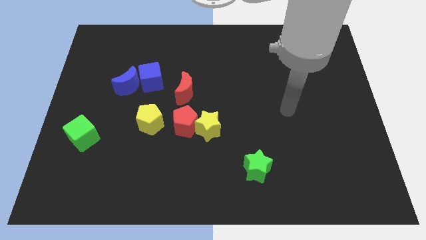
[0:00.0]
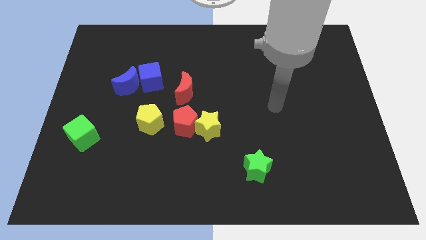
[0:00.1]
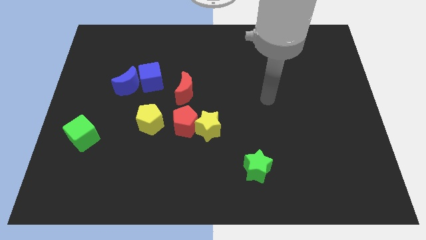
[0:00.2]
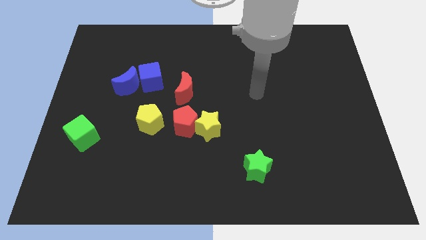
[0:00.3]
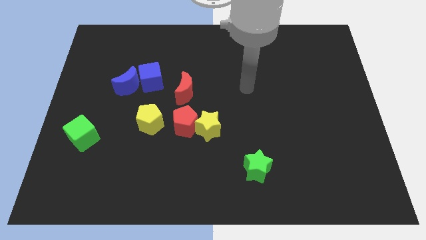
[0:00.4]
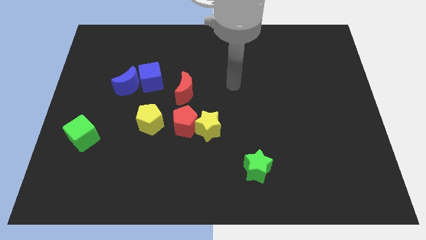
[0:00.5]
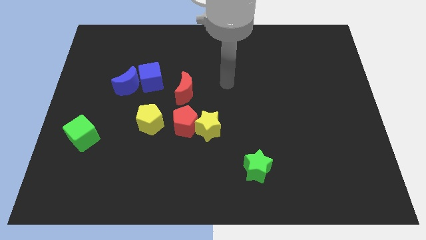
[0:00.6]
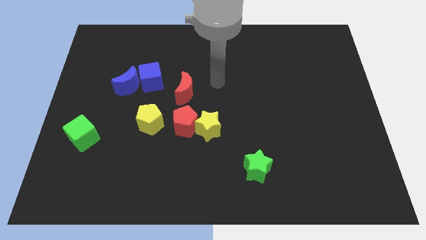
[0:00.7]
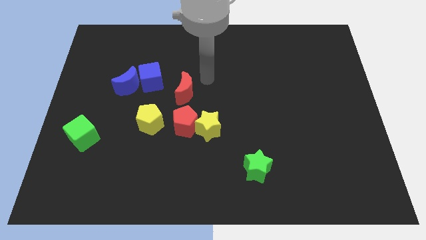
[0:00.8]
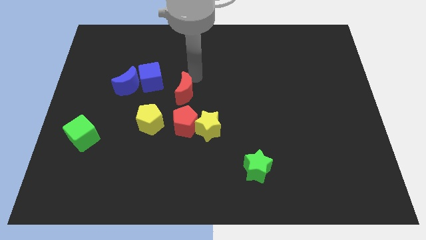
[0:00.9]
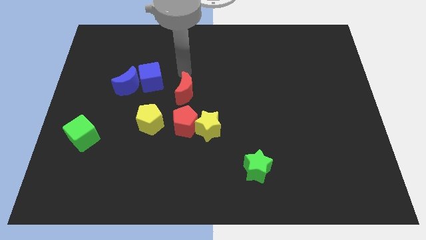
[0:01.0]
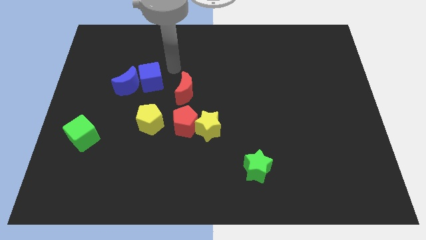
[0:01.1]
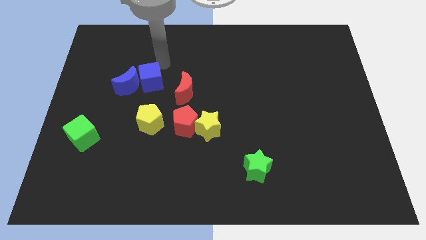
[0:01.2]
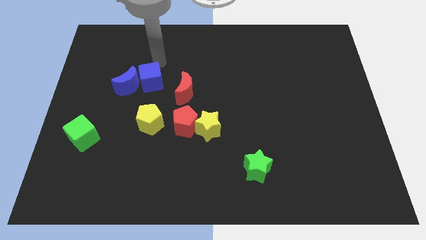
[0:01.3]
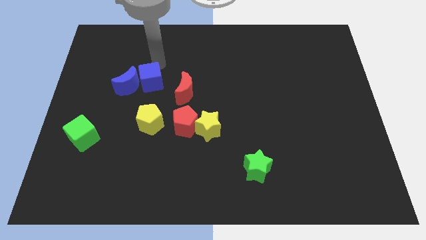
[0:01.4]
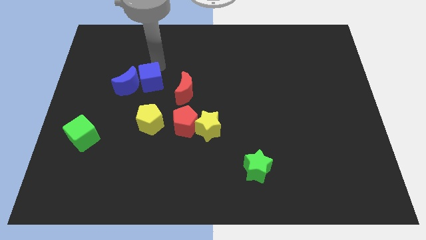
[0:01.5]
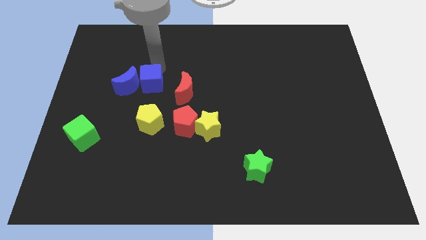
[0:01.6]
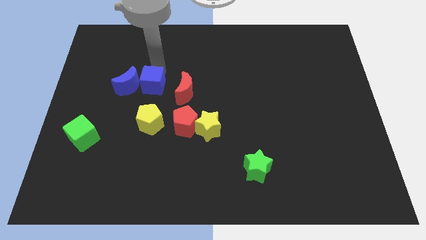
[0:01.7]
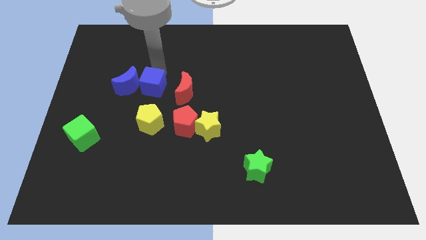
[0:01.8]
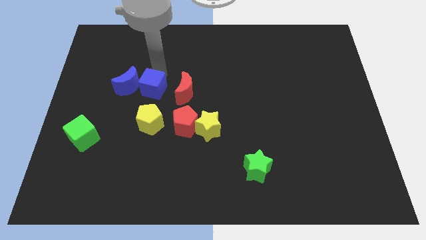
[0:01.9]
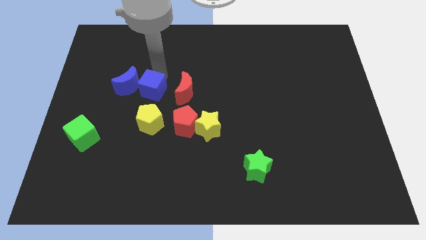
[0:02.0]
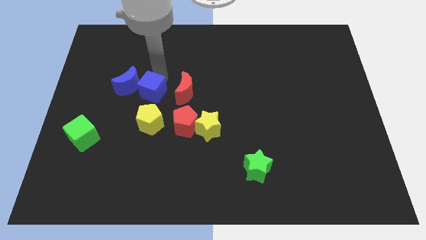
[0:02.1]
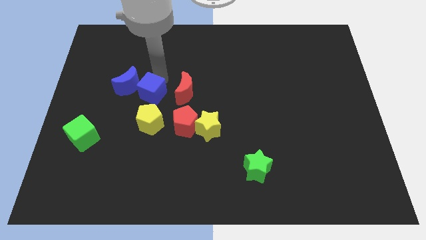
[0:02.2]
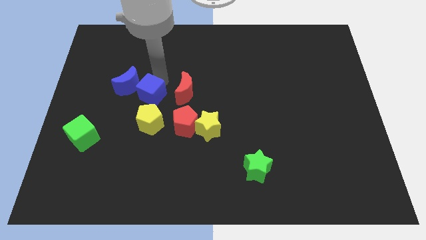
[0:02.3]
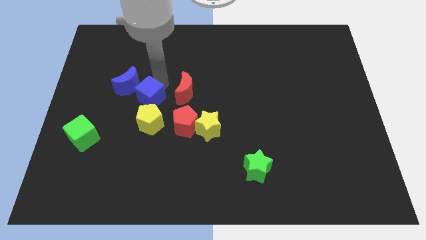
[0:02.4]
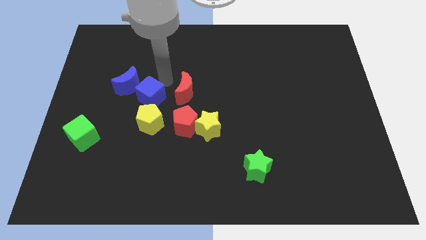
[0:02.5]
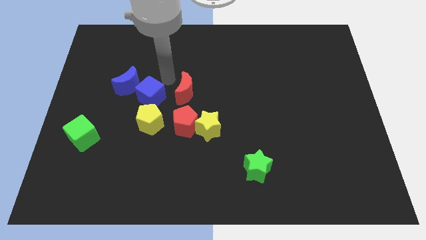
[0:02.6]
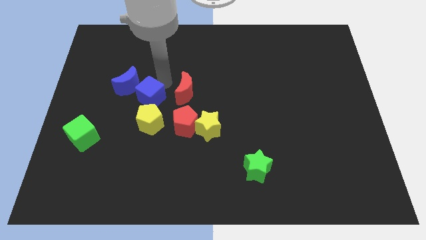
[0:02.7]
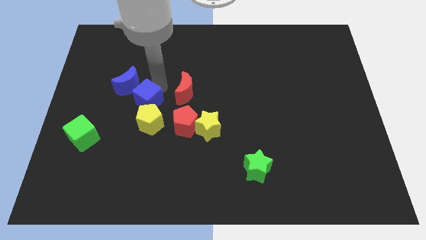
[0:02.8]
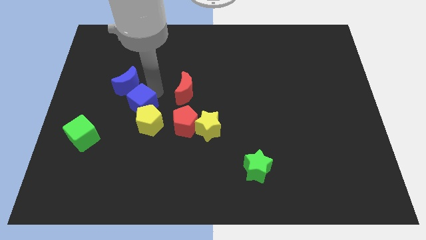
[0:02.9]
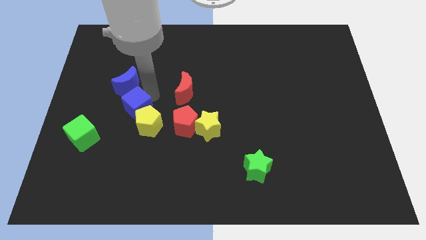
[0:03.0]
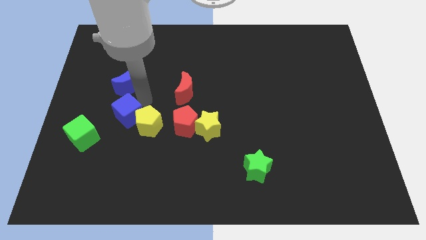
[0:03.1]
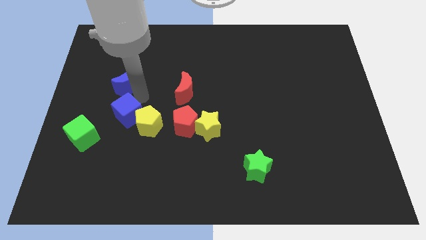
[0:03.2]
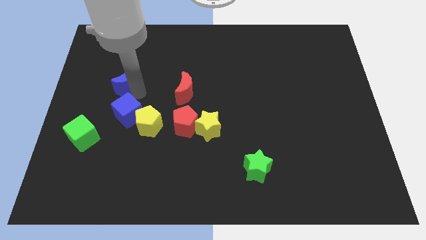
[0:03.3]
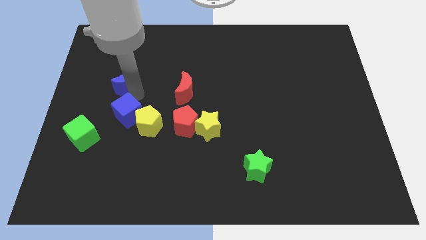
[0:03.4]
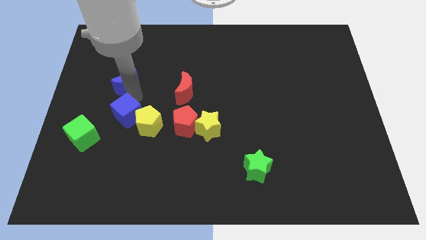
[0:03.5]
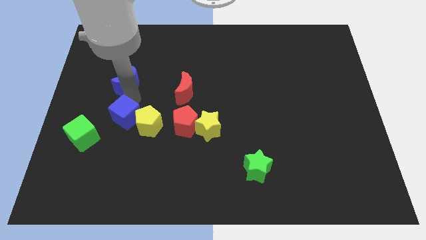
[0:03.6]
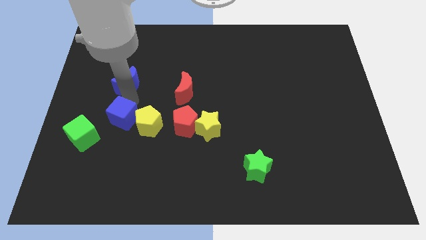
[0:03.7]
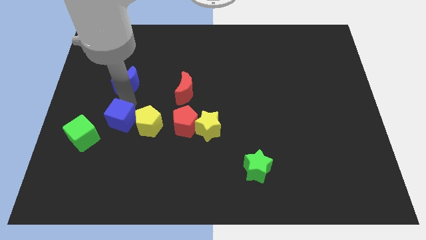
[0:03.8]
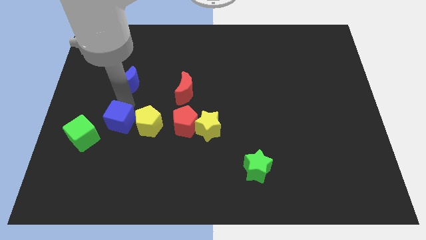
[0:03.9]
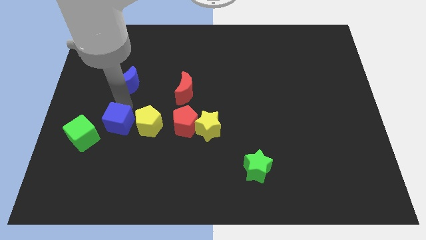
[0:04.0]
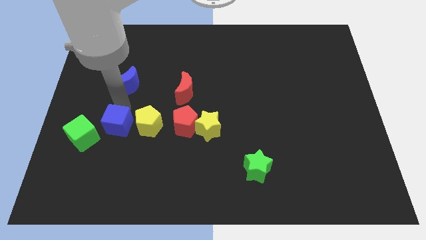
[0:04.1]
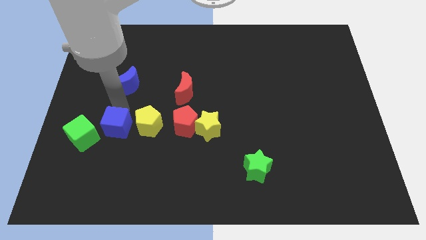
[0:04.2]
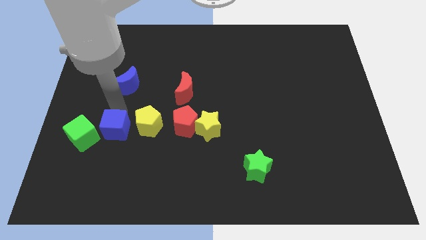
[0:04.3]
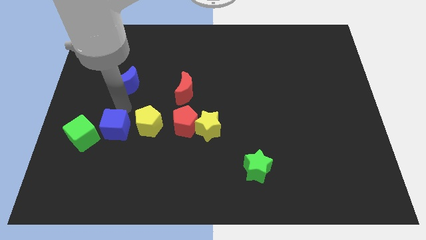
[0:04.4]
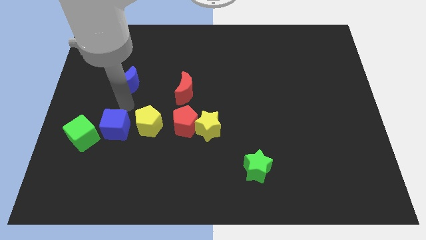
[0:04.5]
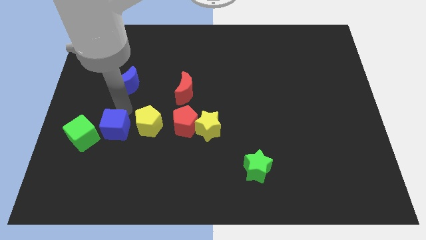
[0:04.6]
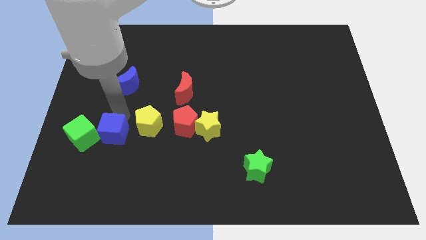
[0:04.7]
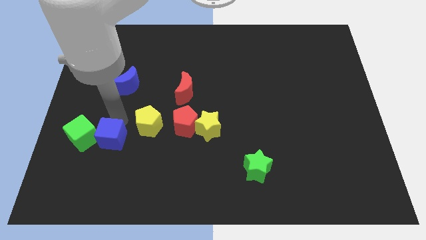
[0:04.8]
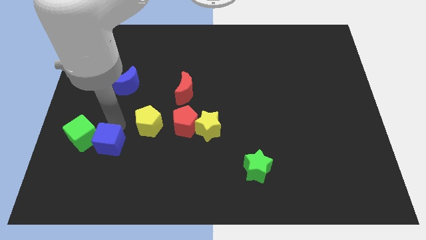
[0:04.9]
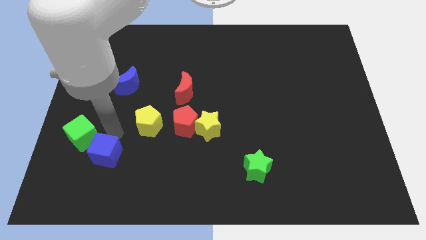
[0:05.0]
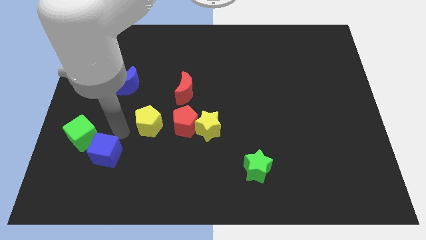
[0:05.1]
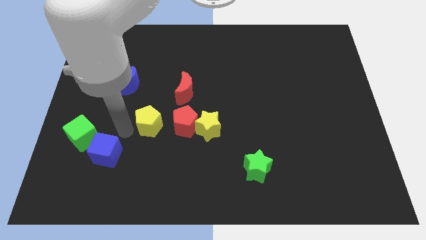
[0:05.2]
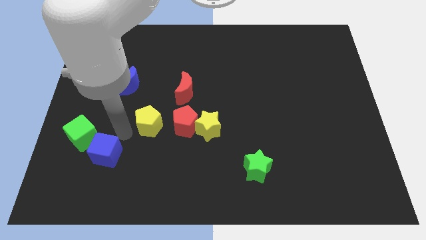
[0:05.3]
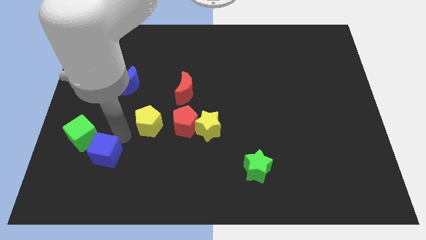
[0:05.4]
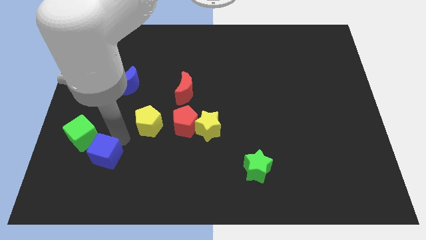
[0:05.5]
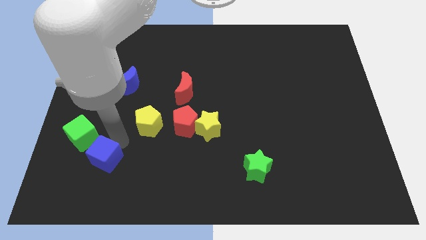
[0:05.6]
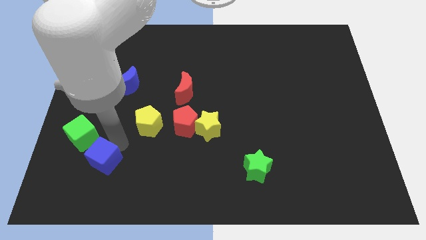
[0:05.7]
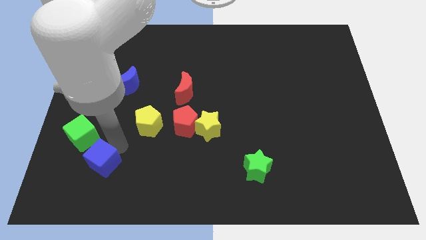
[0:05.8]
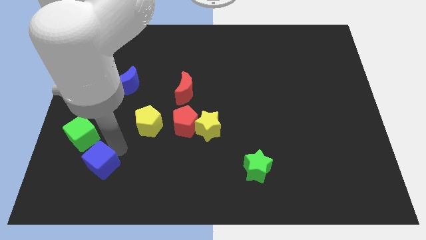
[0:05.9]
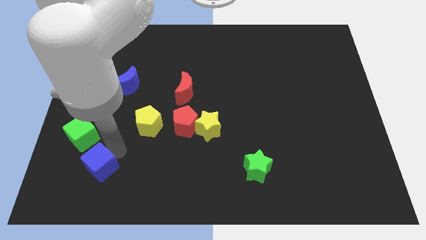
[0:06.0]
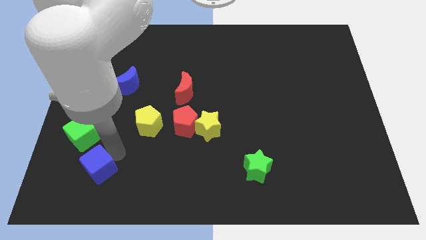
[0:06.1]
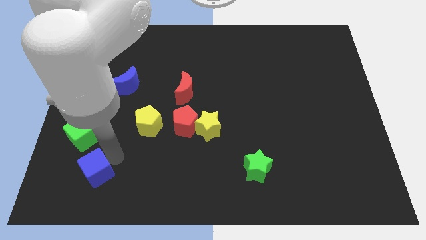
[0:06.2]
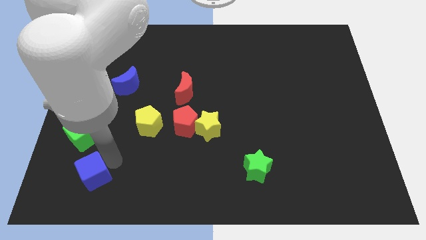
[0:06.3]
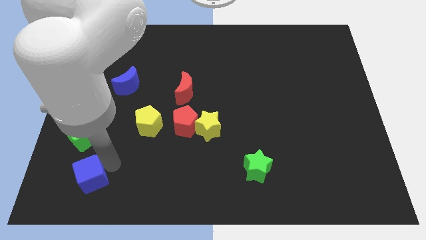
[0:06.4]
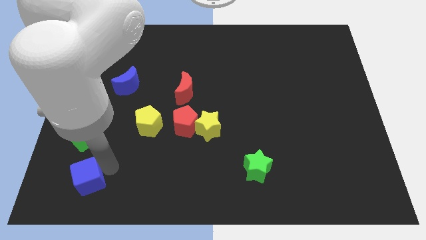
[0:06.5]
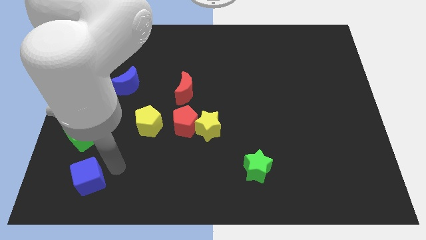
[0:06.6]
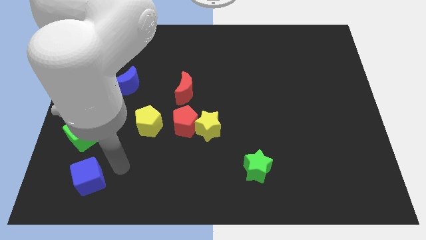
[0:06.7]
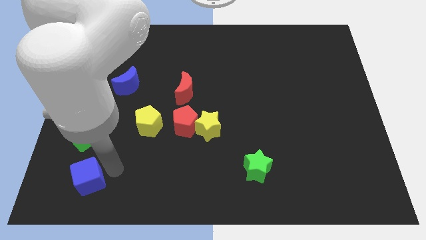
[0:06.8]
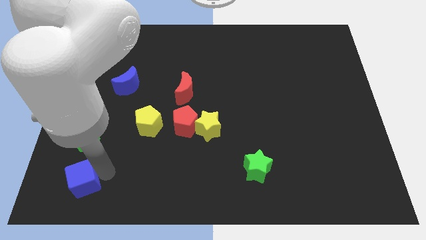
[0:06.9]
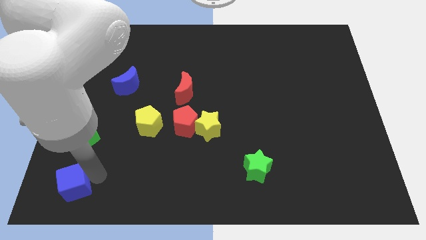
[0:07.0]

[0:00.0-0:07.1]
put the blue cube to the lower left corner

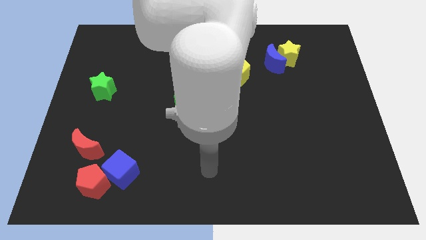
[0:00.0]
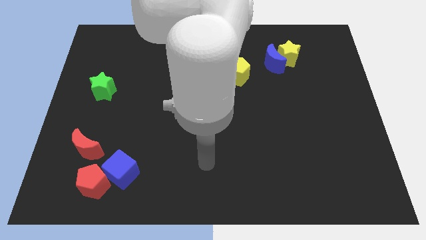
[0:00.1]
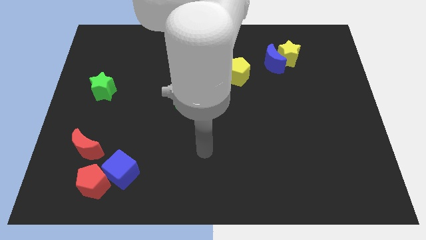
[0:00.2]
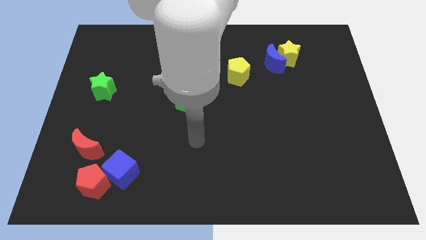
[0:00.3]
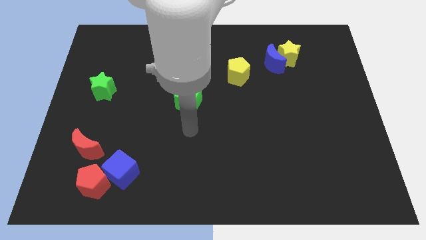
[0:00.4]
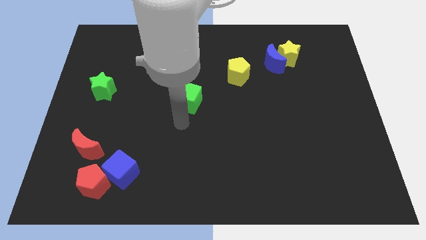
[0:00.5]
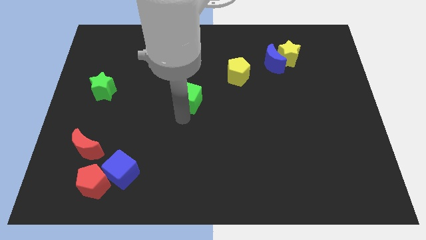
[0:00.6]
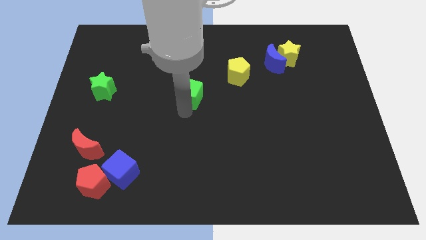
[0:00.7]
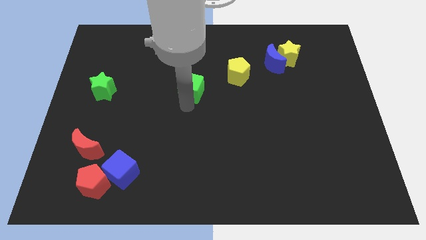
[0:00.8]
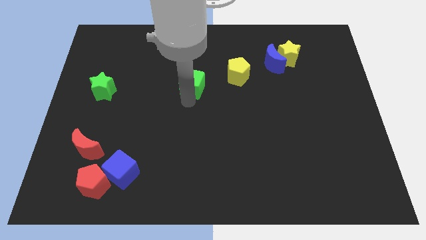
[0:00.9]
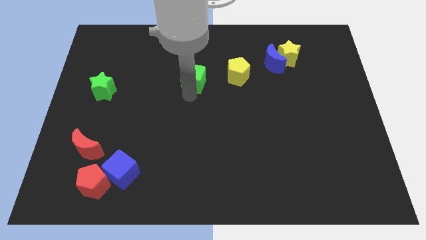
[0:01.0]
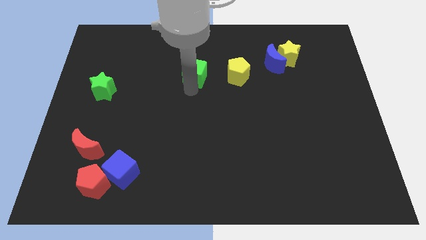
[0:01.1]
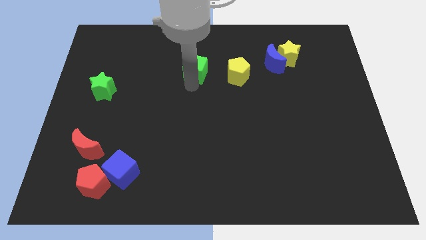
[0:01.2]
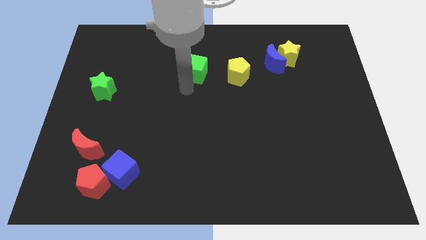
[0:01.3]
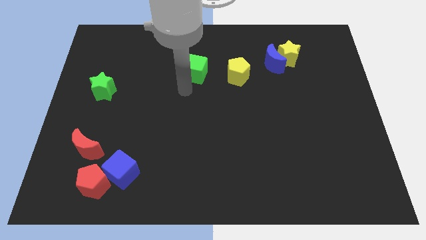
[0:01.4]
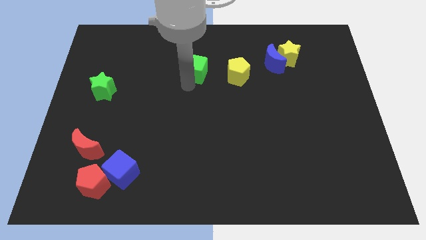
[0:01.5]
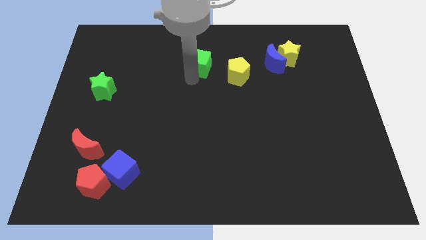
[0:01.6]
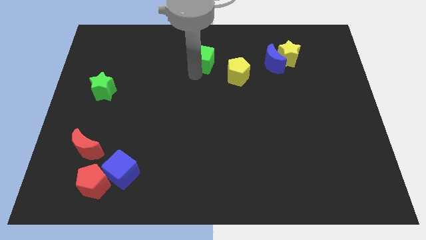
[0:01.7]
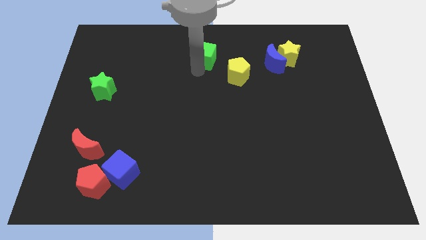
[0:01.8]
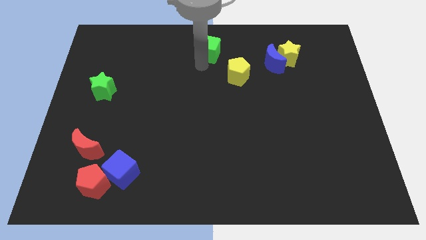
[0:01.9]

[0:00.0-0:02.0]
move the green cube to the top
